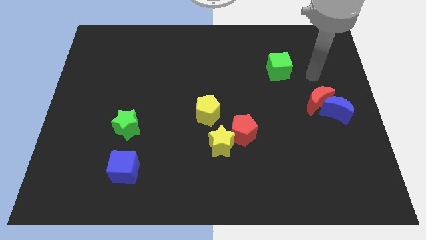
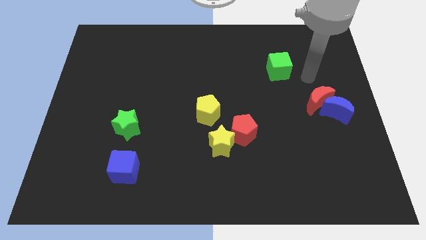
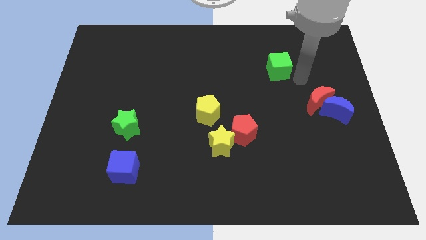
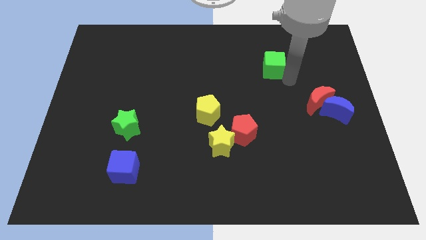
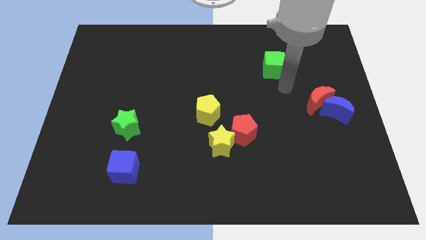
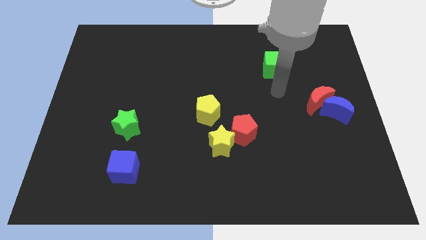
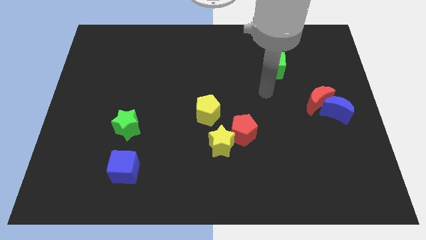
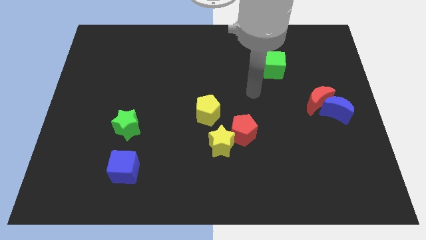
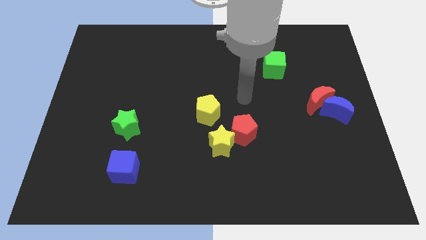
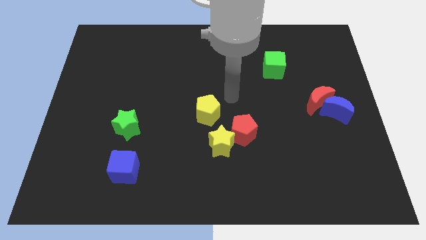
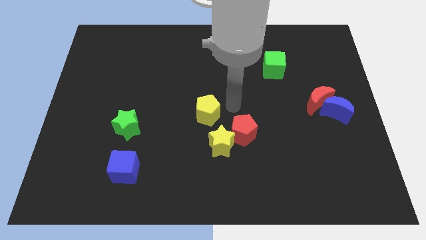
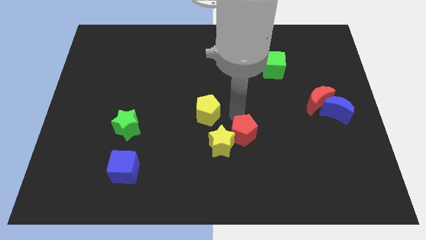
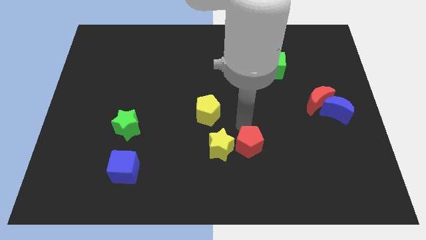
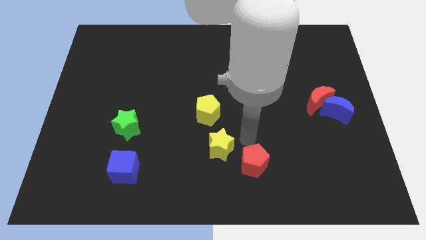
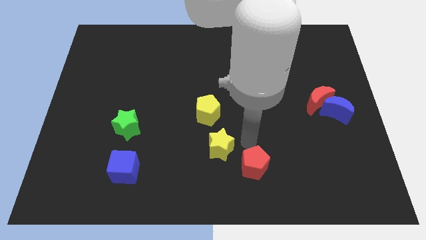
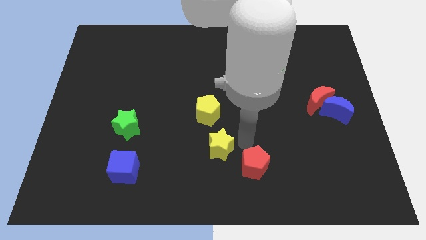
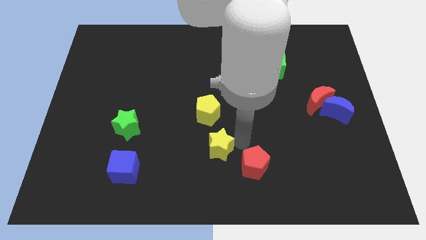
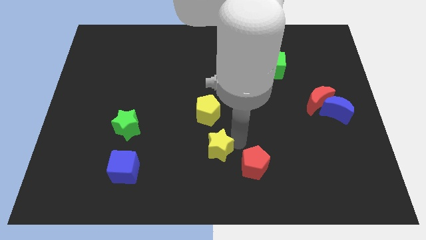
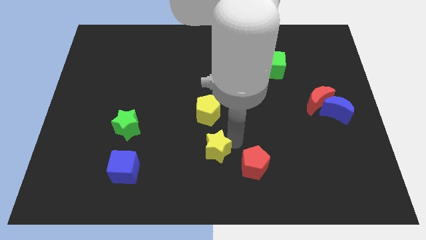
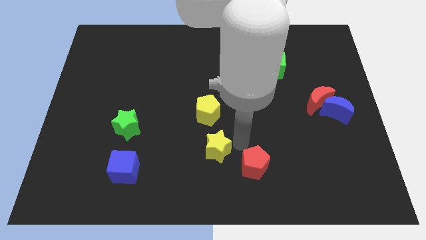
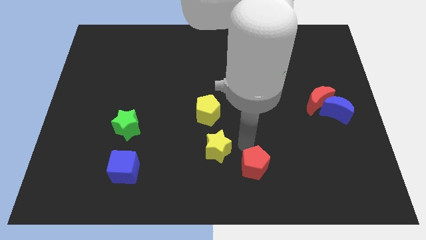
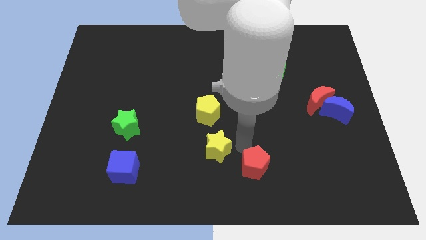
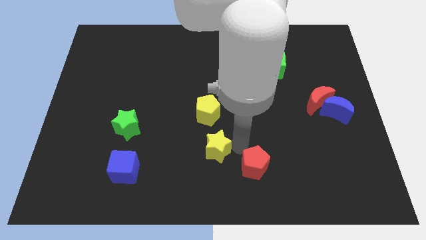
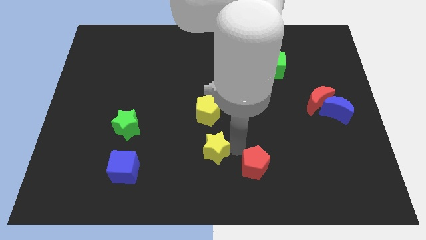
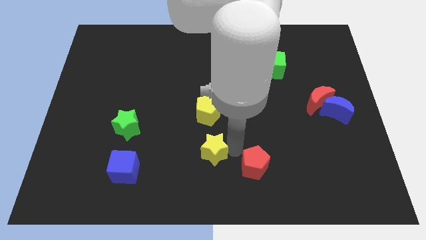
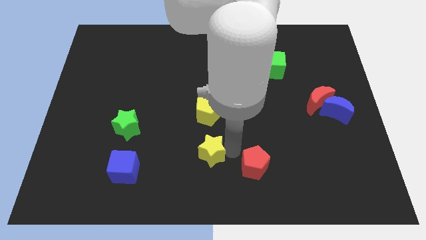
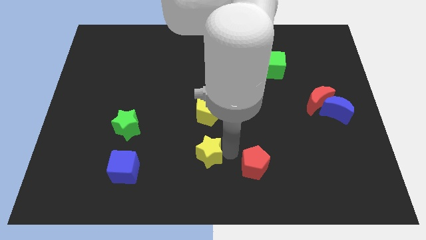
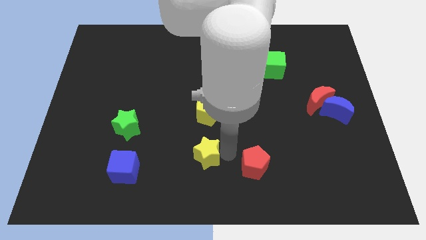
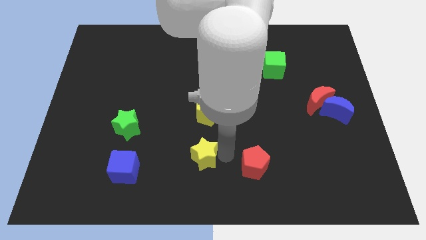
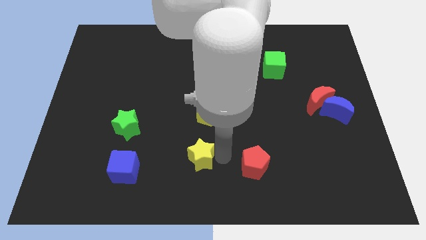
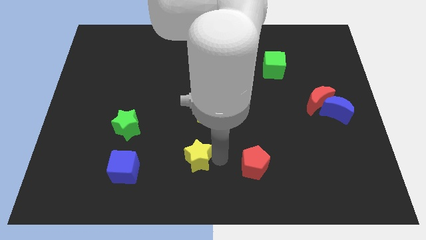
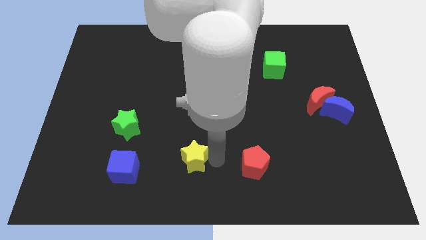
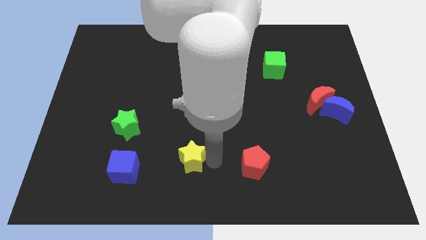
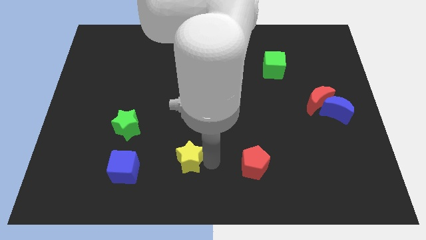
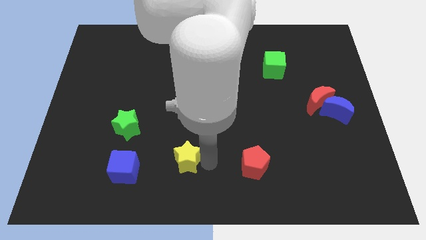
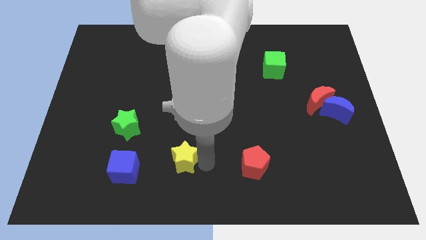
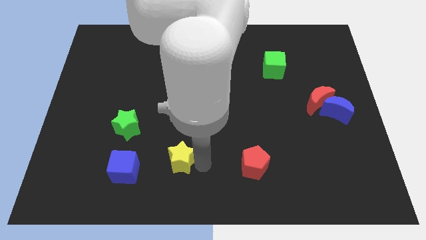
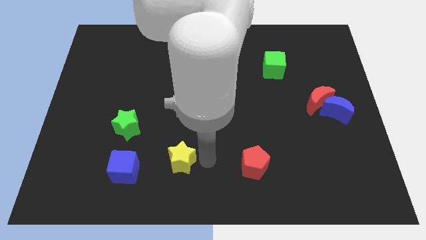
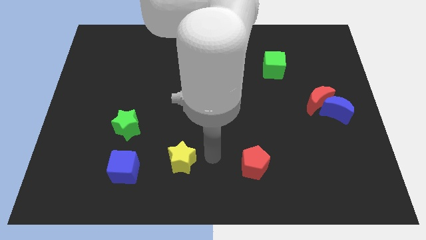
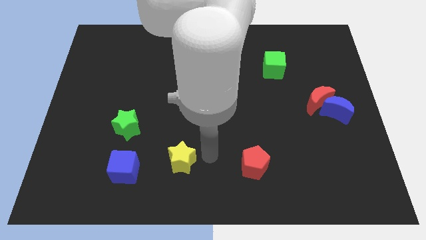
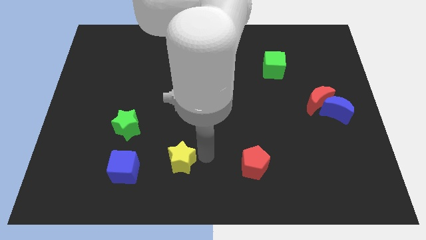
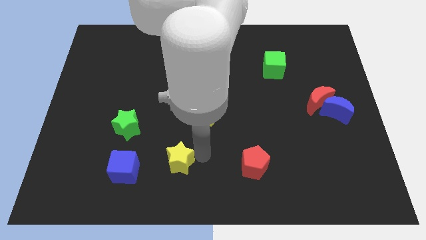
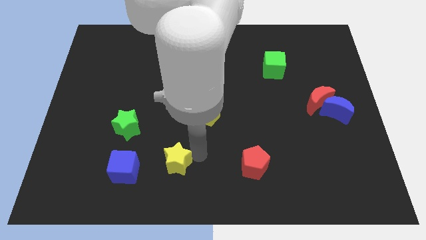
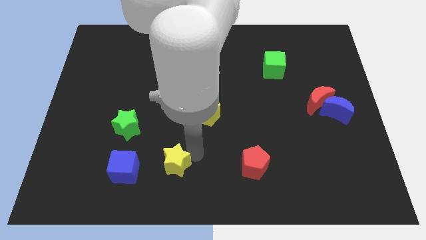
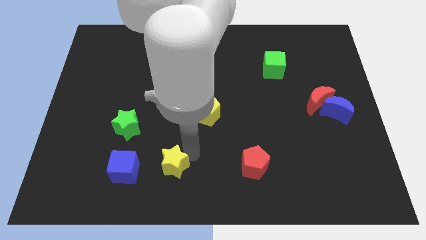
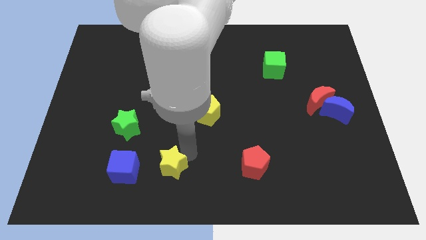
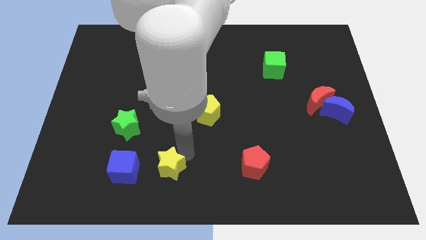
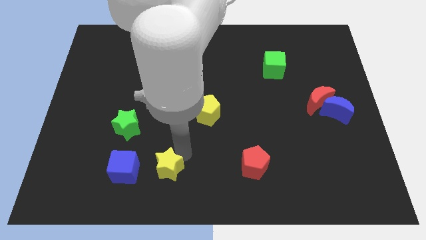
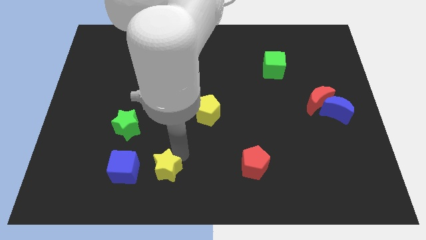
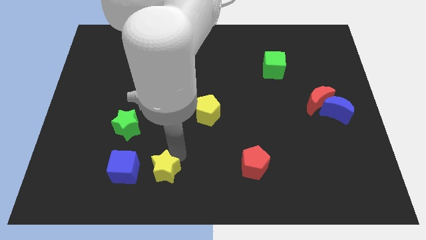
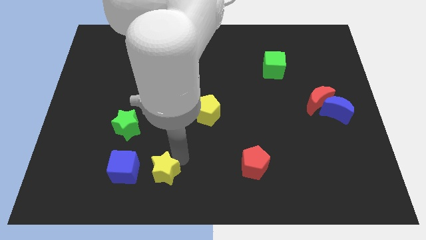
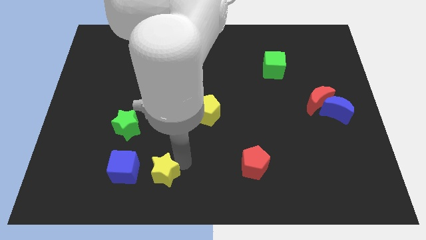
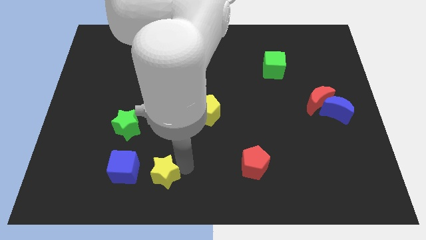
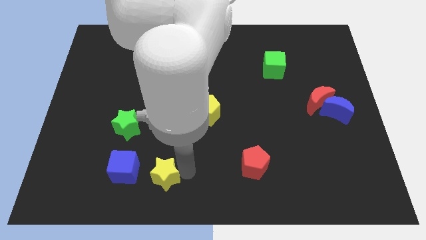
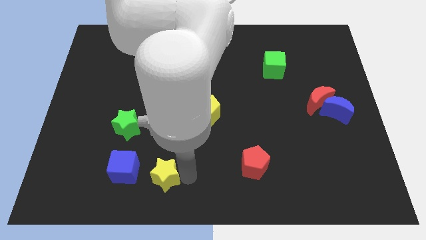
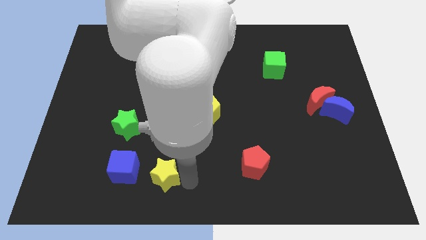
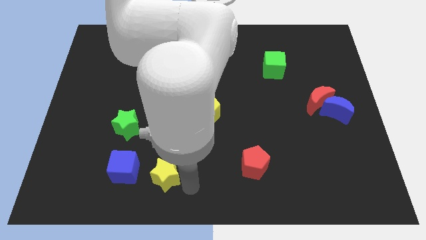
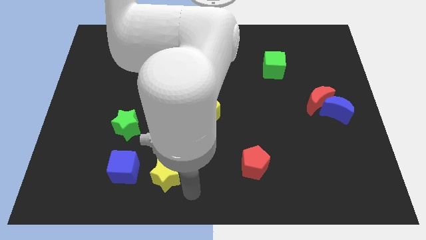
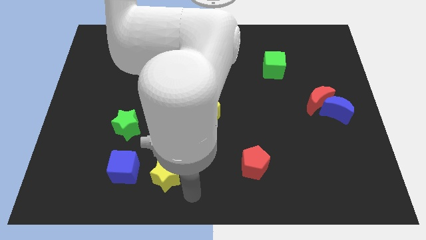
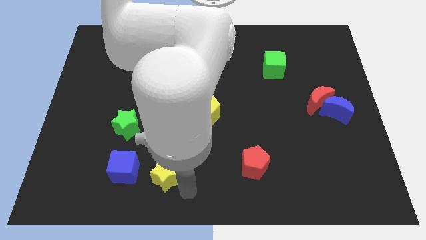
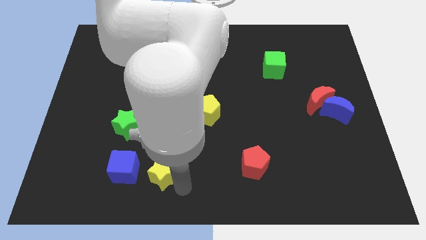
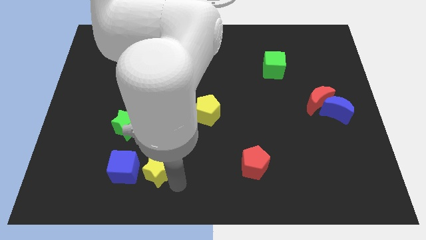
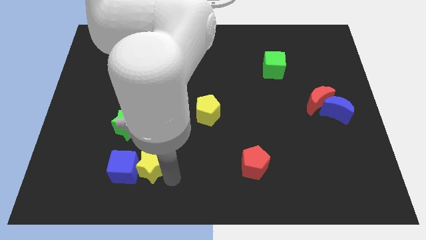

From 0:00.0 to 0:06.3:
move the yellow star next to the blue cube

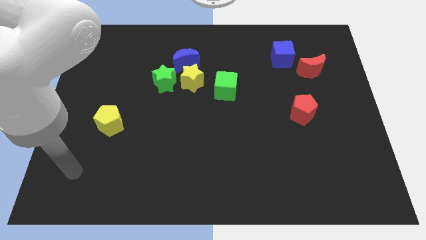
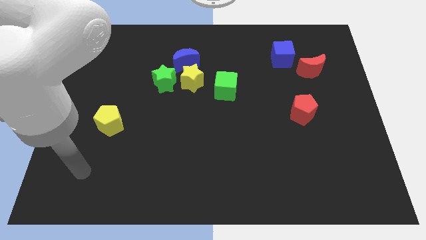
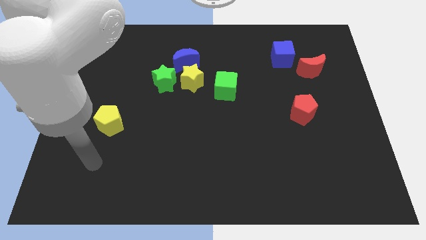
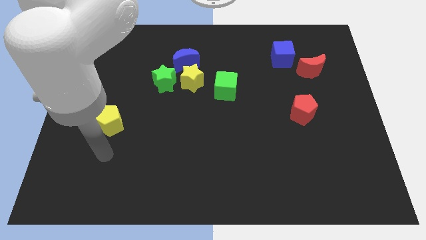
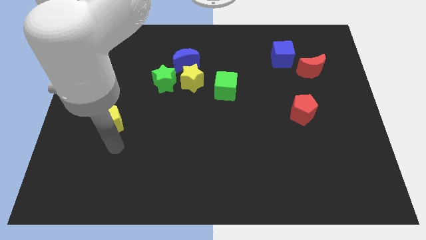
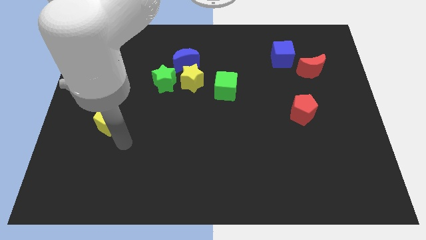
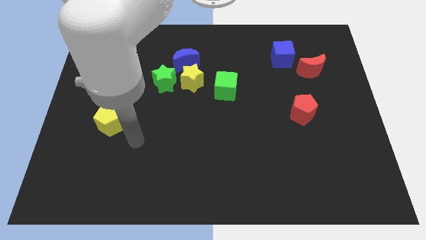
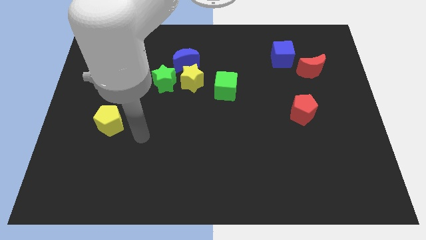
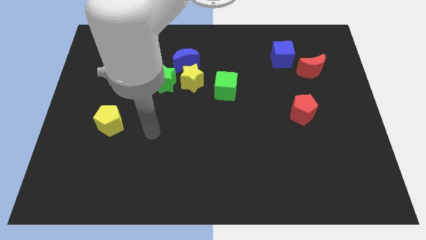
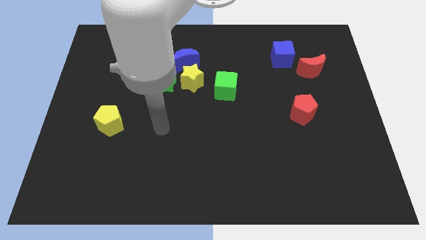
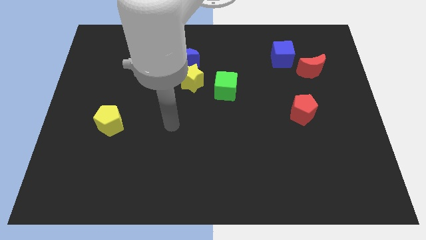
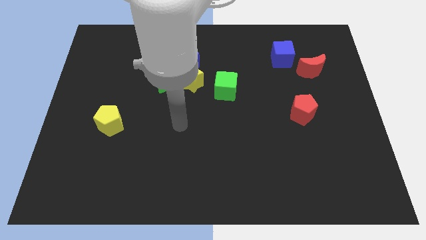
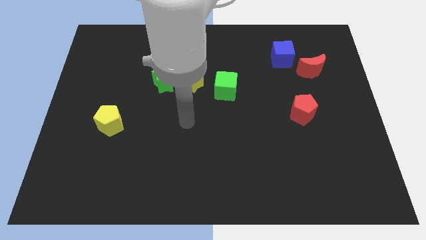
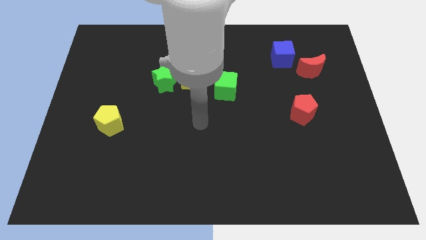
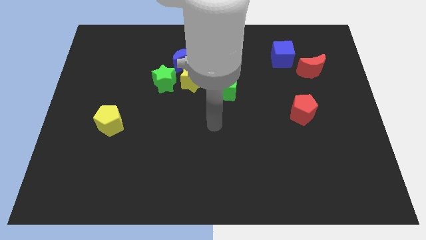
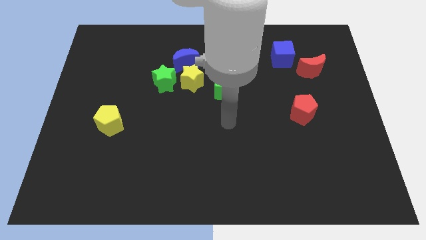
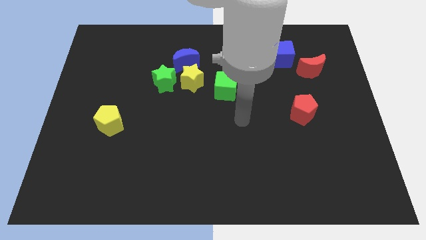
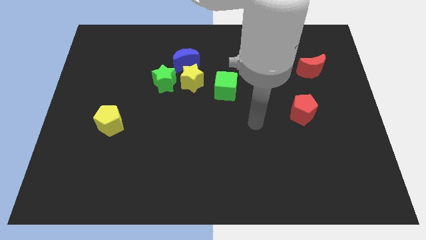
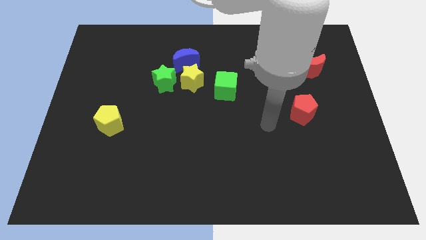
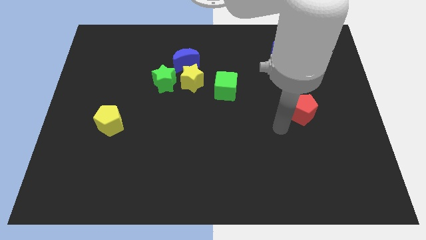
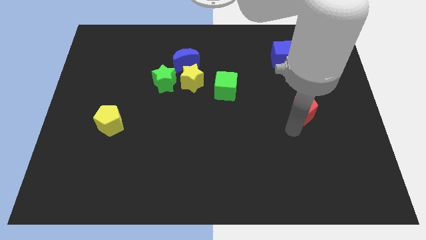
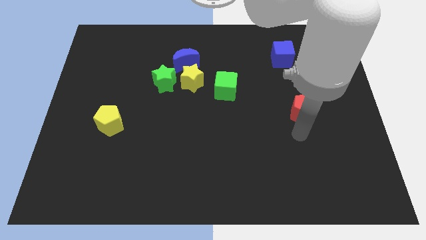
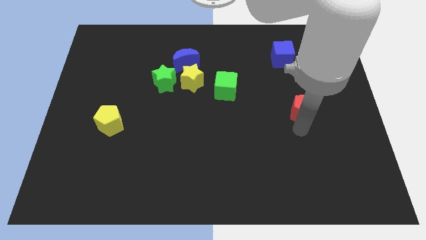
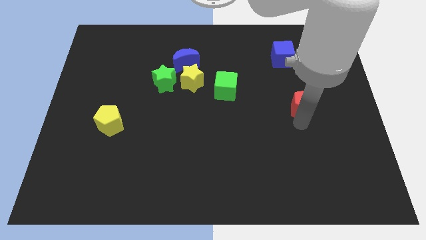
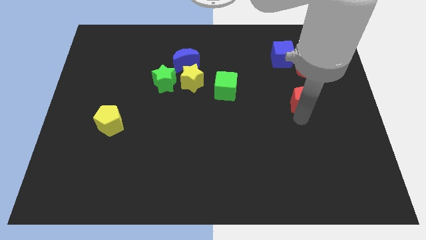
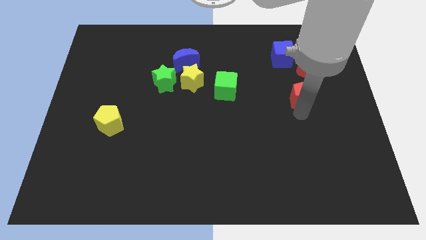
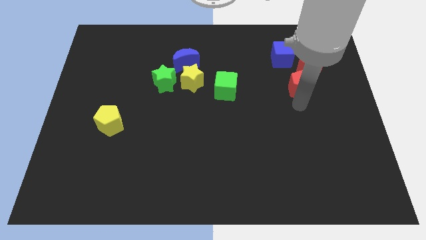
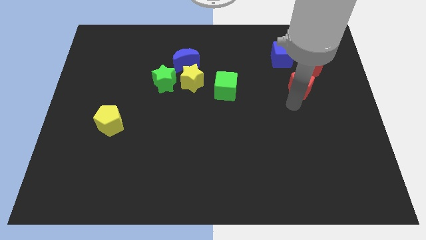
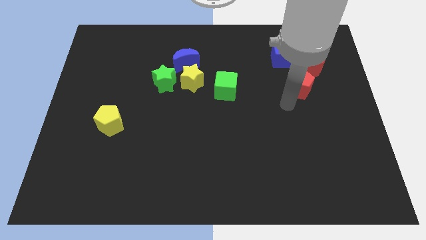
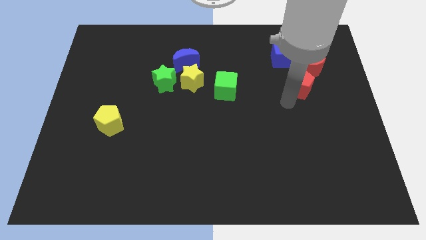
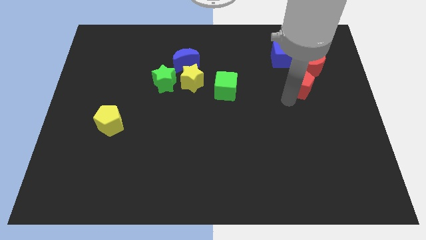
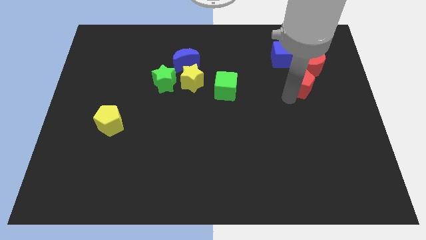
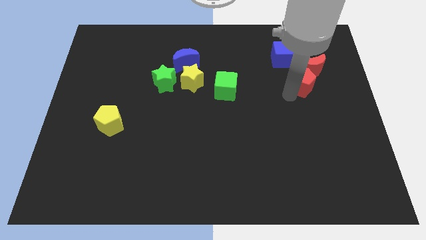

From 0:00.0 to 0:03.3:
slide the red pentagon to the red moon
